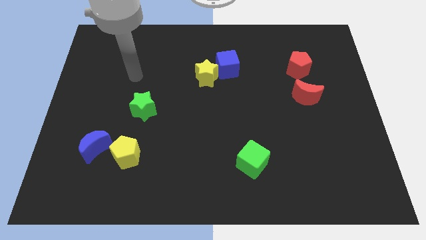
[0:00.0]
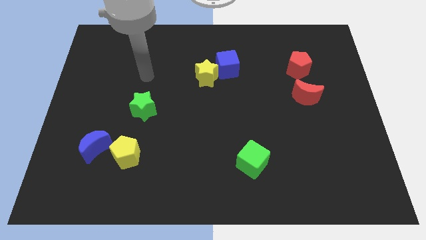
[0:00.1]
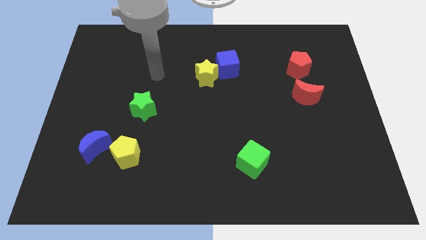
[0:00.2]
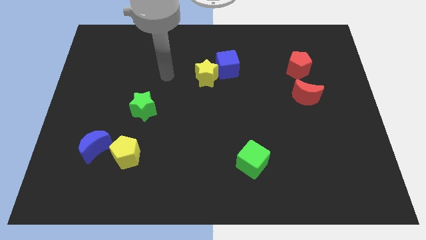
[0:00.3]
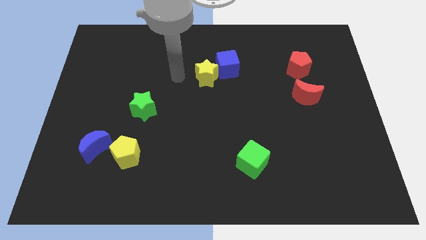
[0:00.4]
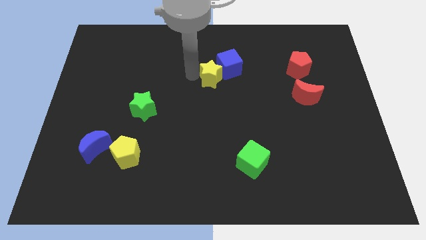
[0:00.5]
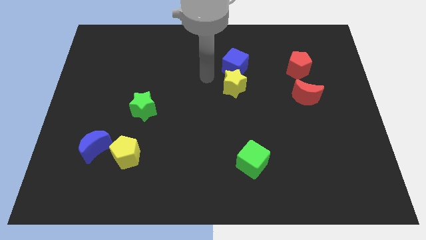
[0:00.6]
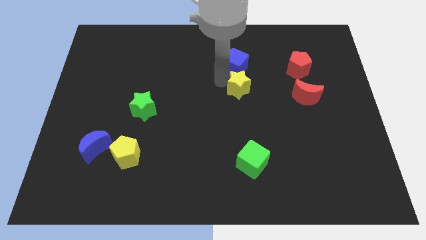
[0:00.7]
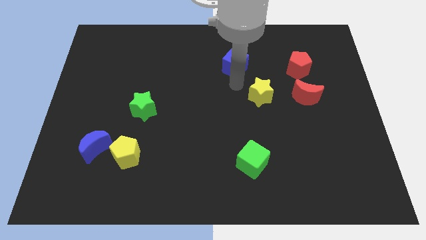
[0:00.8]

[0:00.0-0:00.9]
pull the blue cube apart from the yellow star

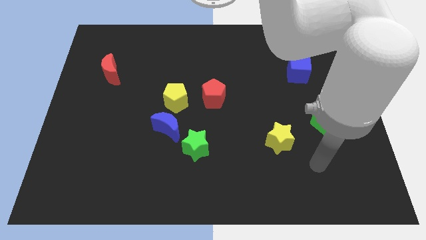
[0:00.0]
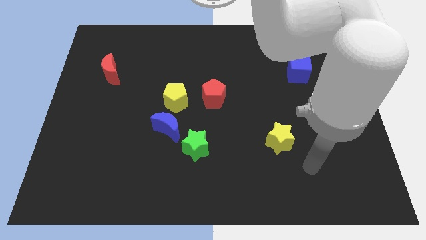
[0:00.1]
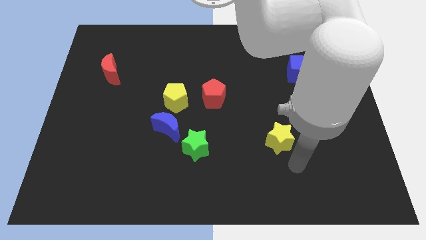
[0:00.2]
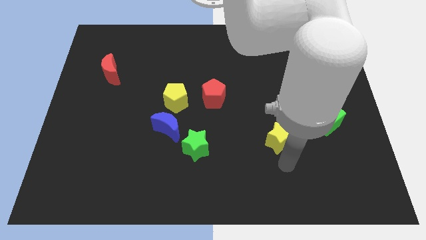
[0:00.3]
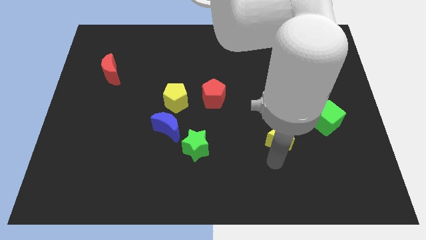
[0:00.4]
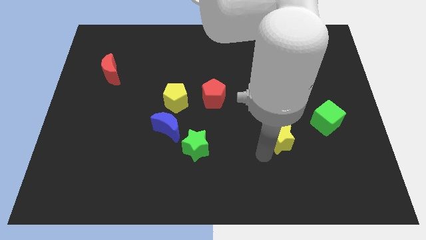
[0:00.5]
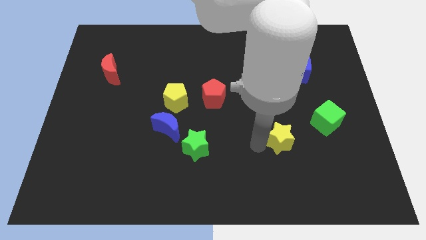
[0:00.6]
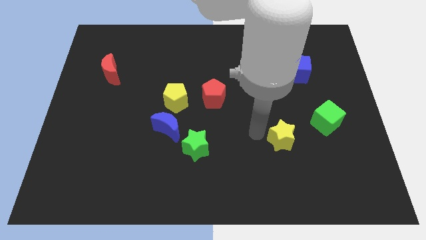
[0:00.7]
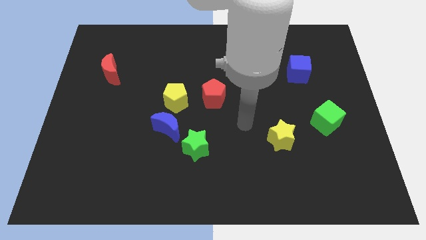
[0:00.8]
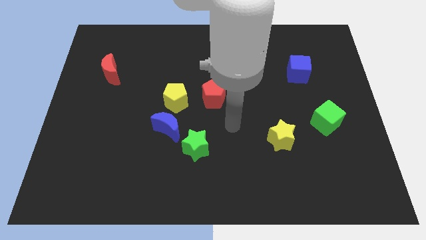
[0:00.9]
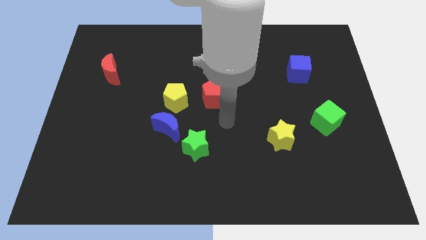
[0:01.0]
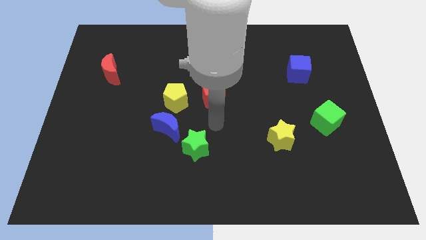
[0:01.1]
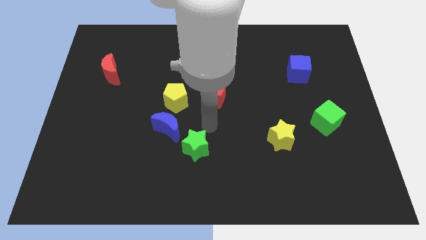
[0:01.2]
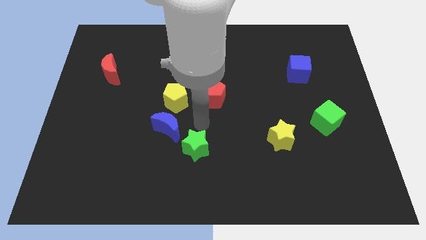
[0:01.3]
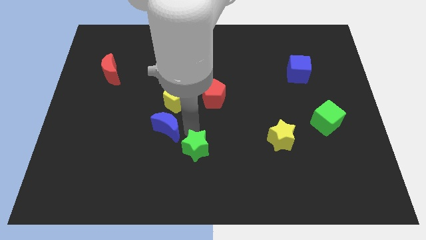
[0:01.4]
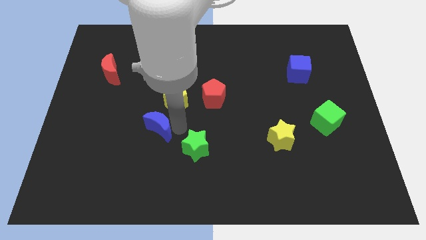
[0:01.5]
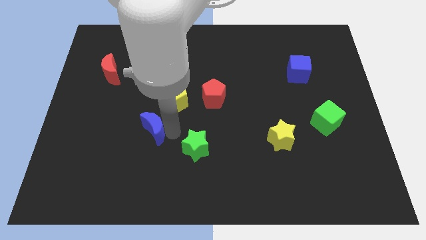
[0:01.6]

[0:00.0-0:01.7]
move the green star away from the blue moon

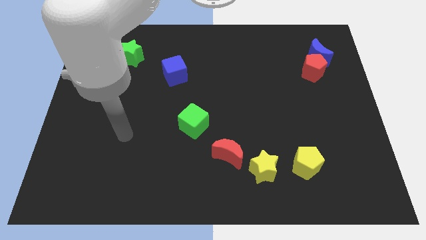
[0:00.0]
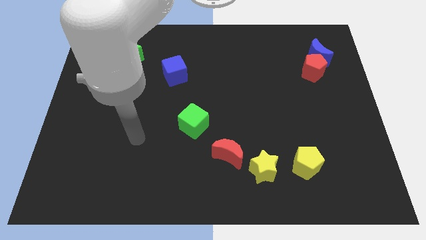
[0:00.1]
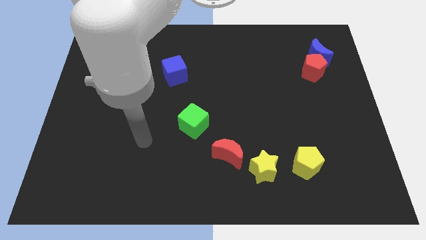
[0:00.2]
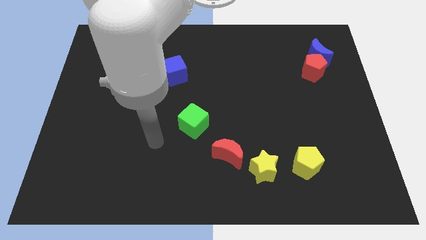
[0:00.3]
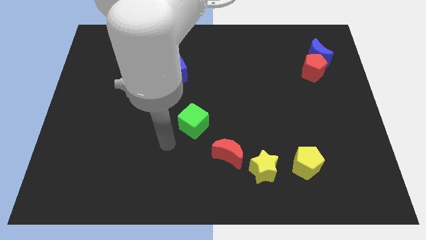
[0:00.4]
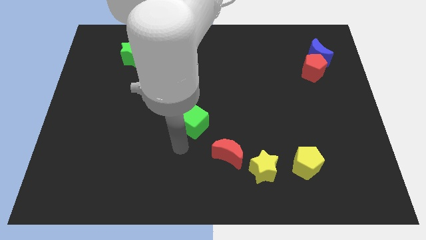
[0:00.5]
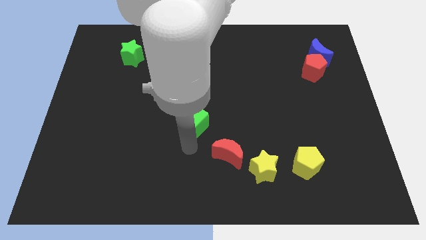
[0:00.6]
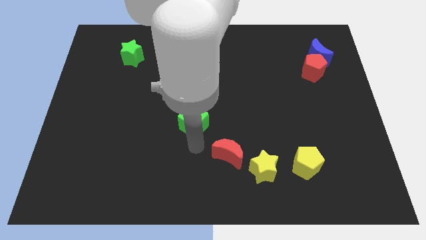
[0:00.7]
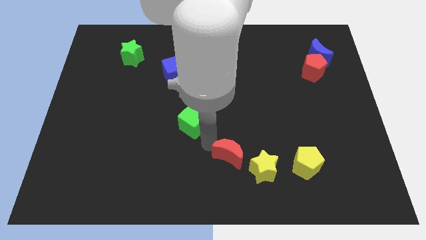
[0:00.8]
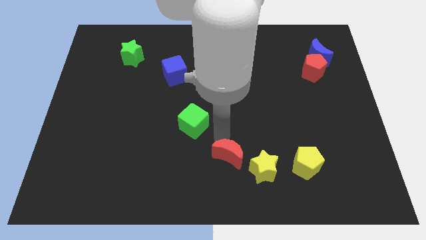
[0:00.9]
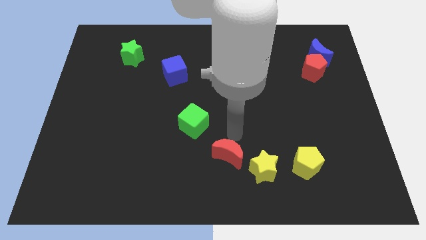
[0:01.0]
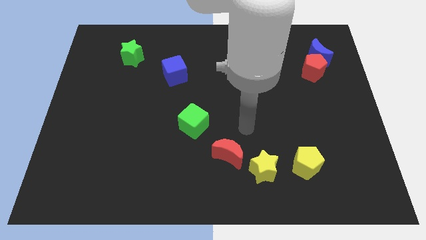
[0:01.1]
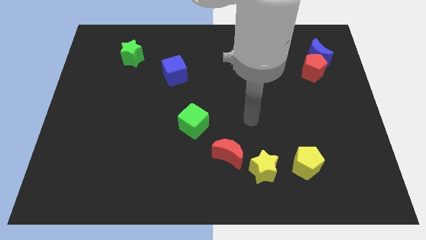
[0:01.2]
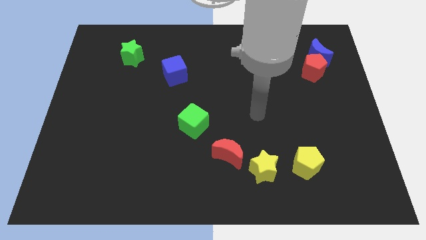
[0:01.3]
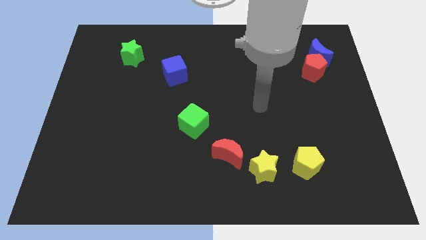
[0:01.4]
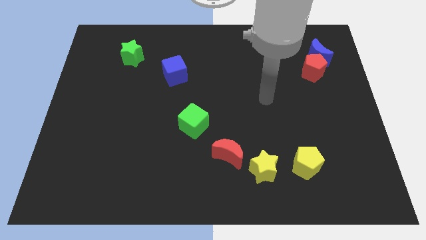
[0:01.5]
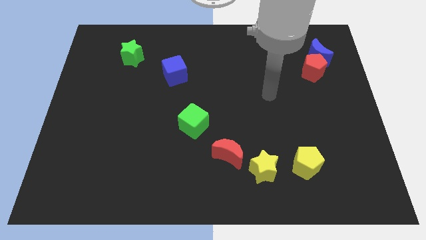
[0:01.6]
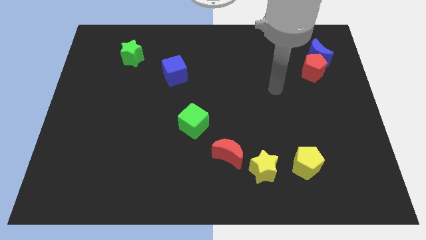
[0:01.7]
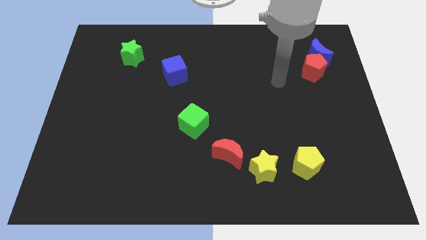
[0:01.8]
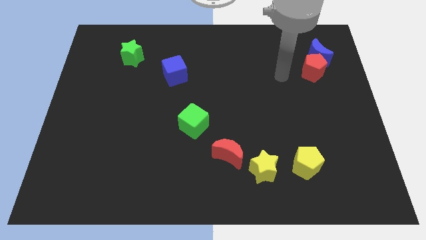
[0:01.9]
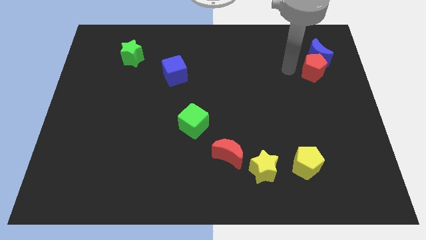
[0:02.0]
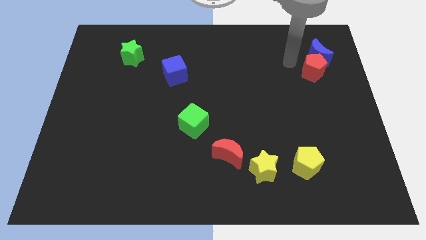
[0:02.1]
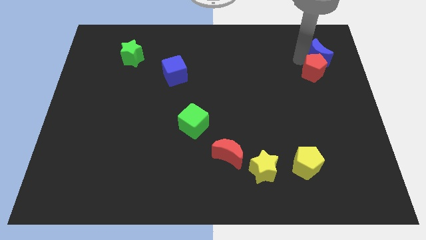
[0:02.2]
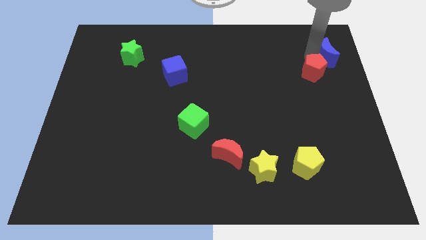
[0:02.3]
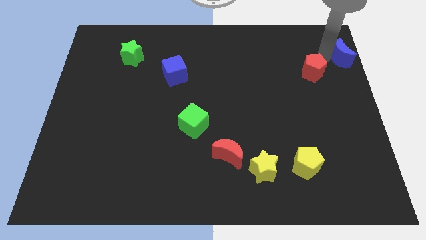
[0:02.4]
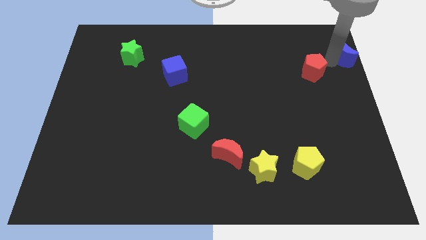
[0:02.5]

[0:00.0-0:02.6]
move the red pentagon away from the blue moon

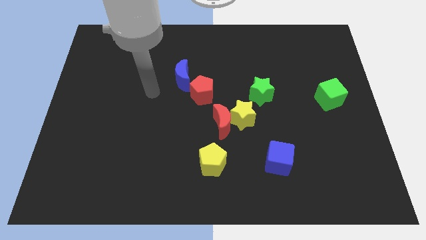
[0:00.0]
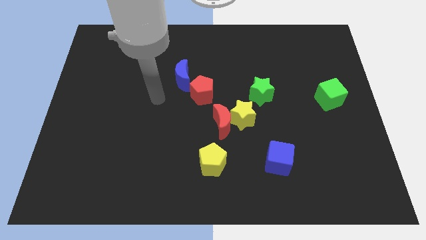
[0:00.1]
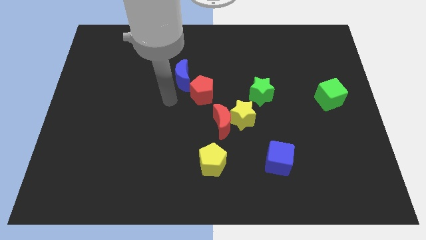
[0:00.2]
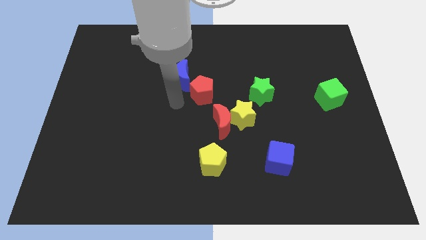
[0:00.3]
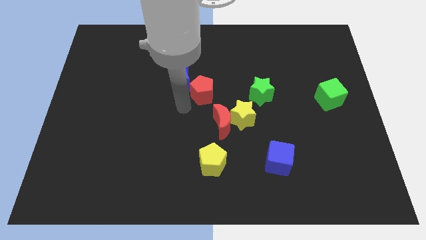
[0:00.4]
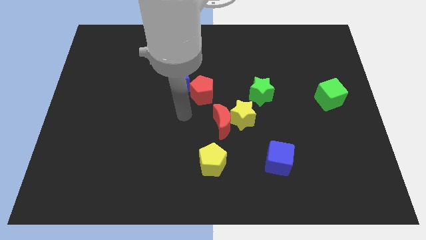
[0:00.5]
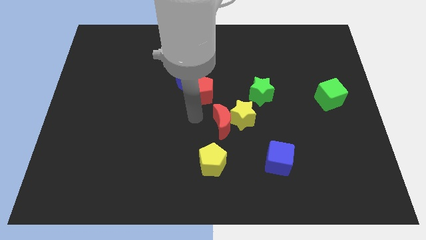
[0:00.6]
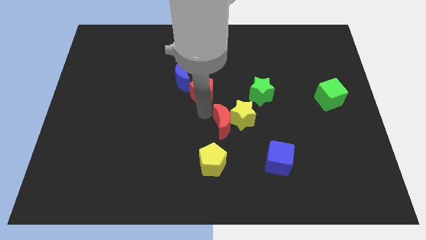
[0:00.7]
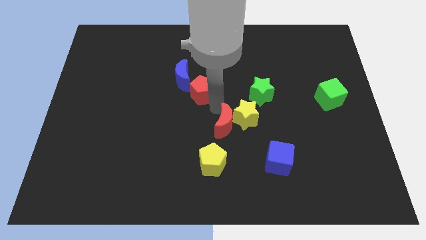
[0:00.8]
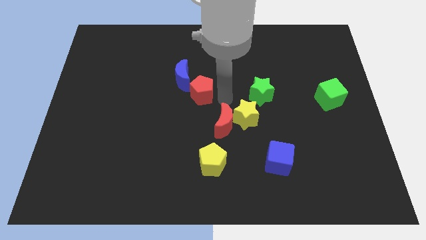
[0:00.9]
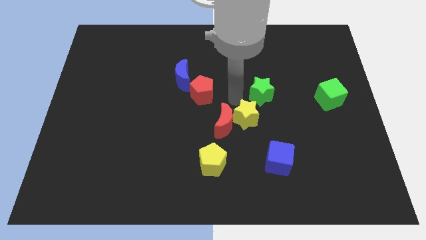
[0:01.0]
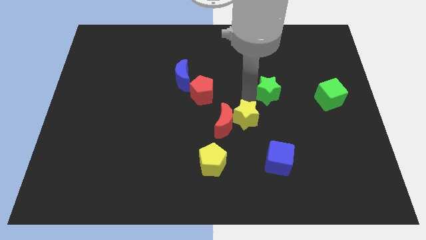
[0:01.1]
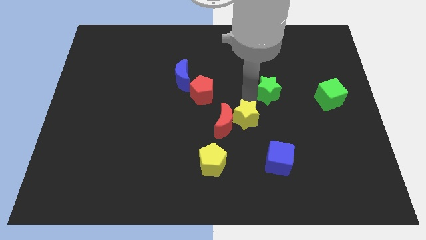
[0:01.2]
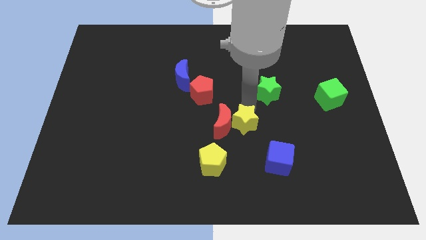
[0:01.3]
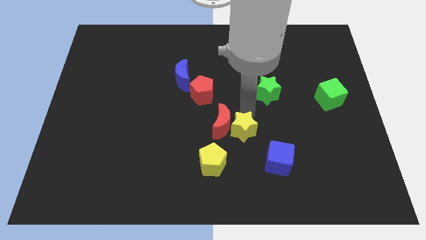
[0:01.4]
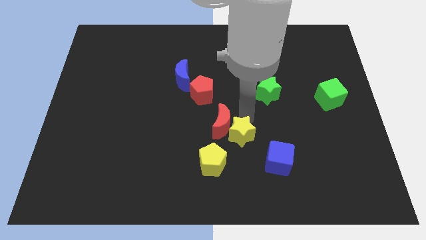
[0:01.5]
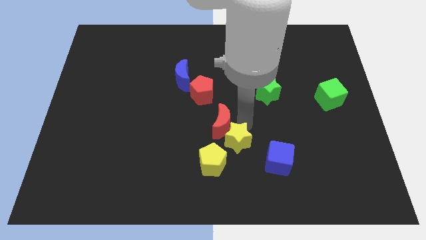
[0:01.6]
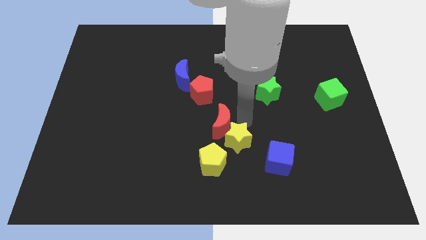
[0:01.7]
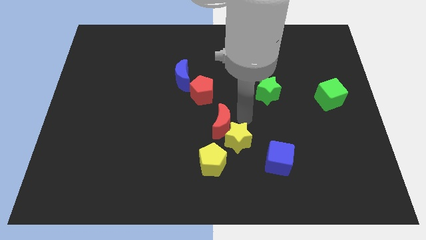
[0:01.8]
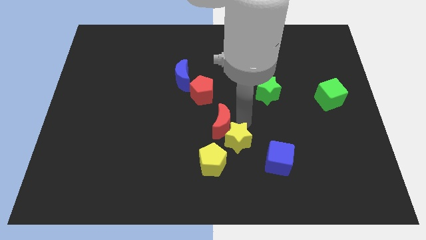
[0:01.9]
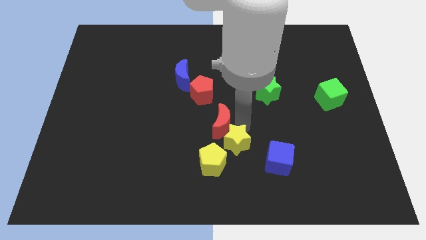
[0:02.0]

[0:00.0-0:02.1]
move the yellow star away from the red moon and green star

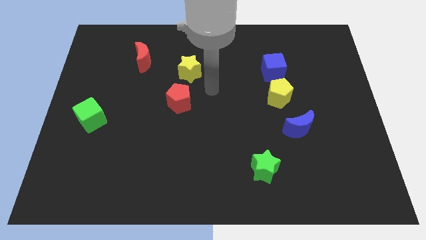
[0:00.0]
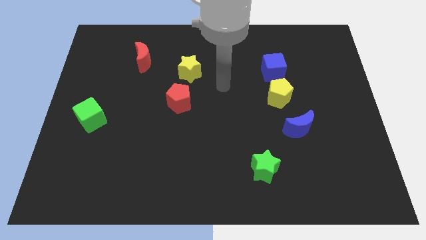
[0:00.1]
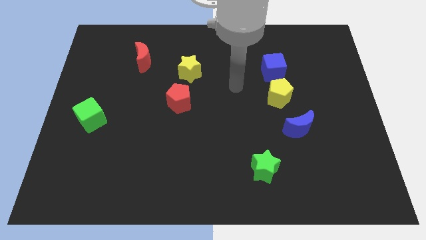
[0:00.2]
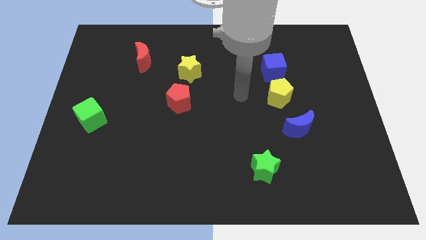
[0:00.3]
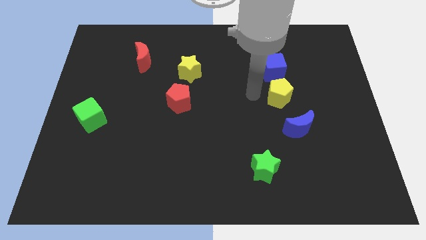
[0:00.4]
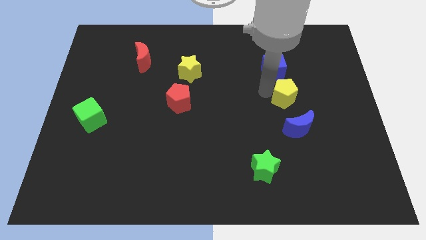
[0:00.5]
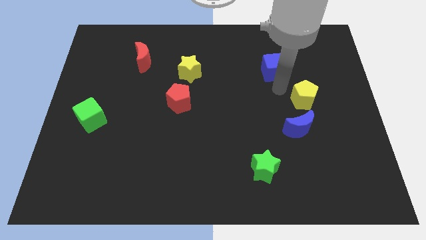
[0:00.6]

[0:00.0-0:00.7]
separate the blue cube from the yellow pentagon

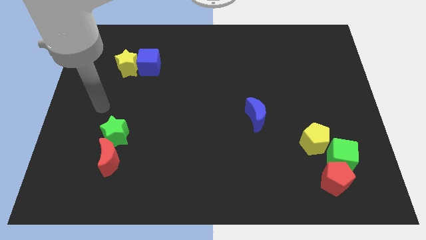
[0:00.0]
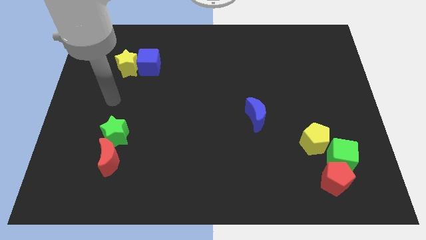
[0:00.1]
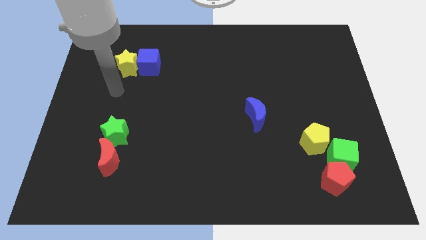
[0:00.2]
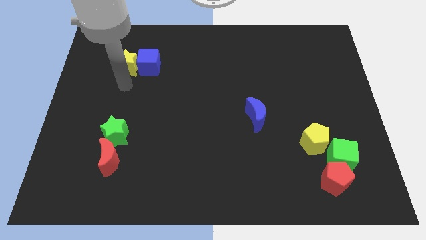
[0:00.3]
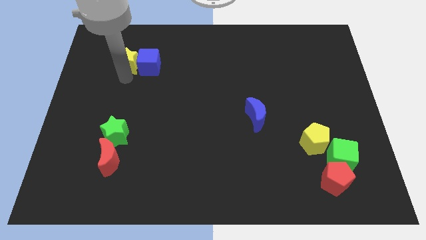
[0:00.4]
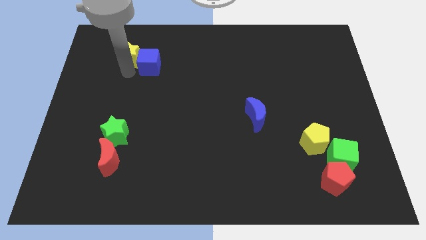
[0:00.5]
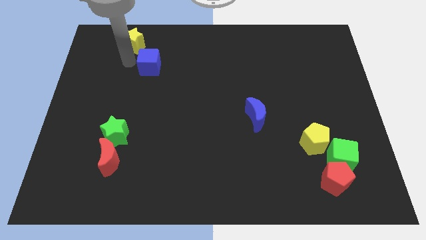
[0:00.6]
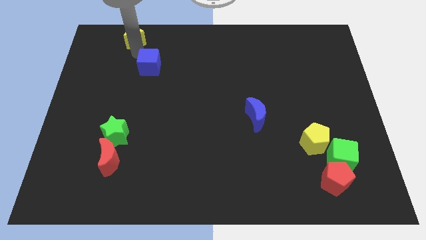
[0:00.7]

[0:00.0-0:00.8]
move the blue cube away from the yellow star

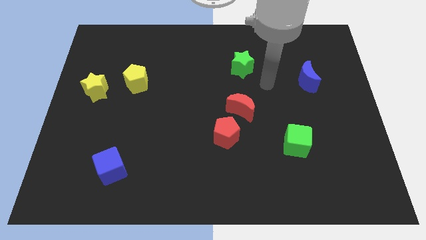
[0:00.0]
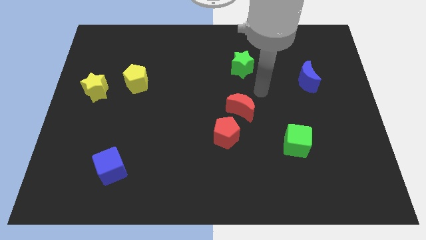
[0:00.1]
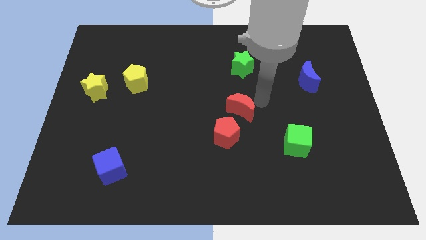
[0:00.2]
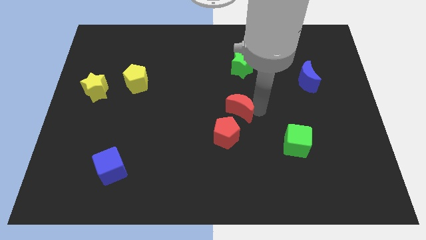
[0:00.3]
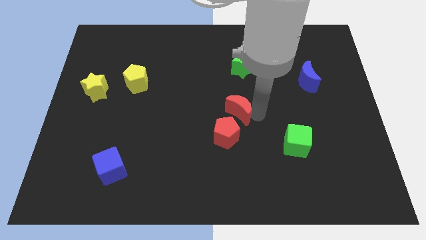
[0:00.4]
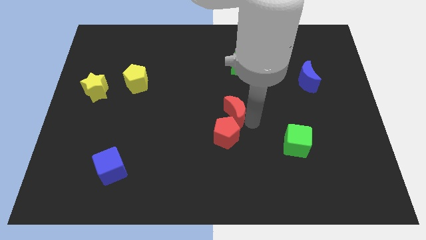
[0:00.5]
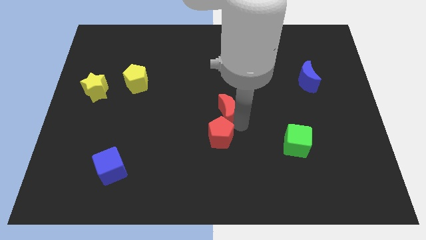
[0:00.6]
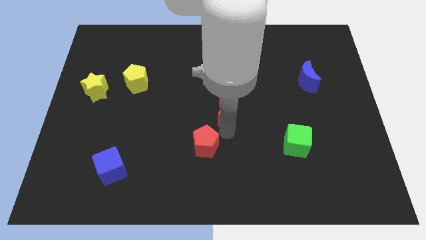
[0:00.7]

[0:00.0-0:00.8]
separate the red moon from the red pentagon
